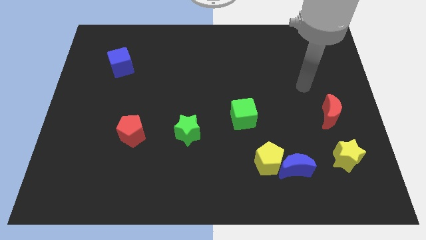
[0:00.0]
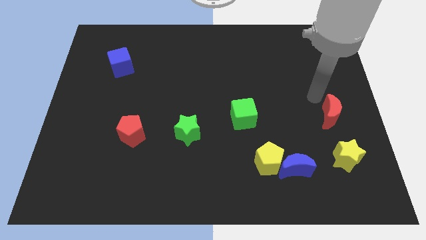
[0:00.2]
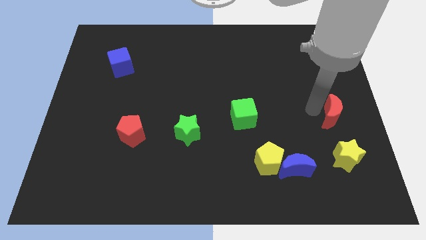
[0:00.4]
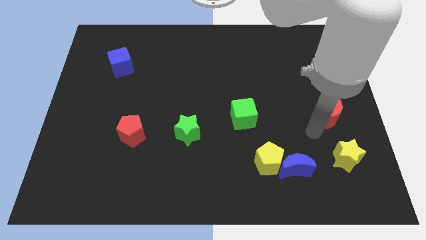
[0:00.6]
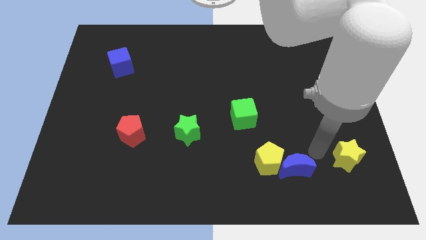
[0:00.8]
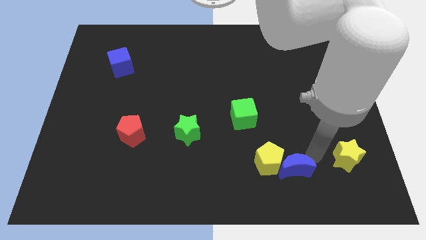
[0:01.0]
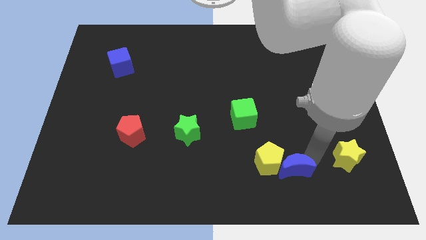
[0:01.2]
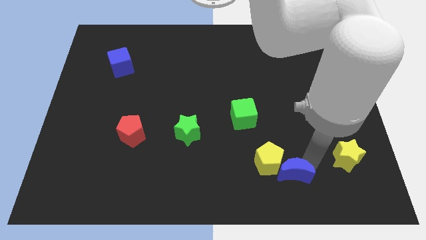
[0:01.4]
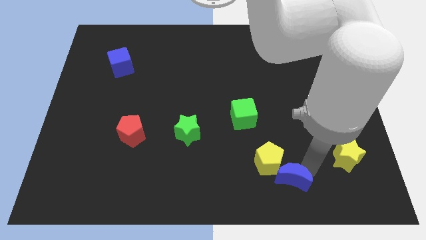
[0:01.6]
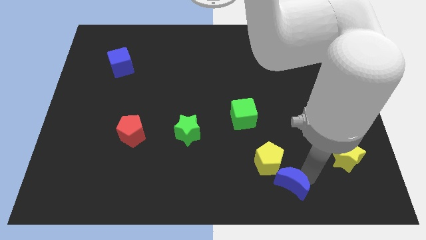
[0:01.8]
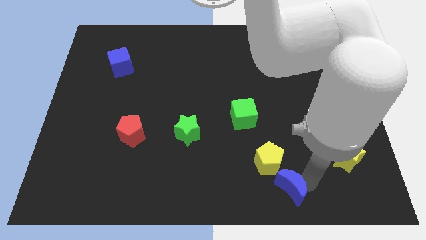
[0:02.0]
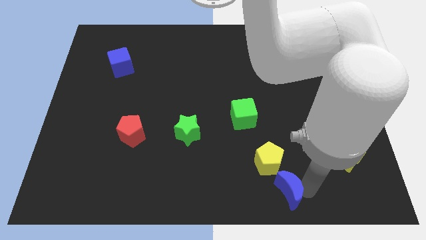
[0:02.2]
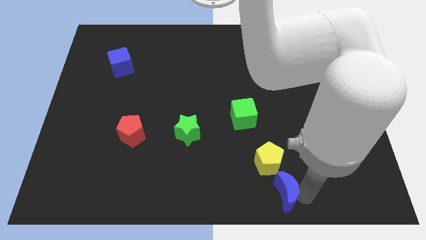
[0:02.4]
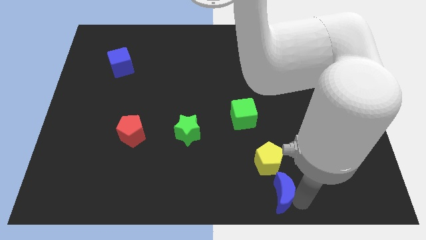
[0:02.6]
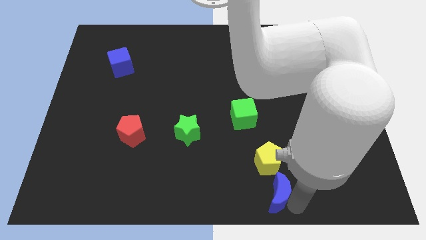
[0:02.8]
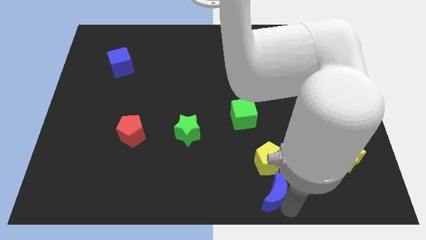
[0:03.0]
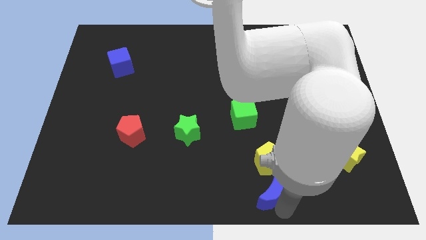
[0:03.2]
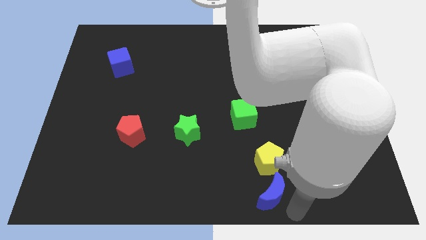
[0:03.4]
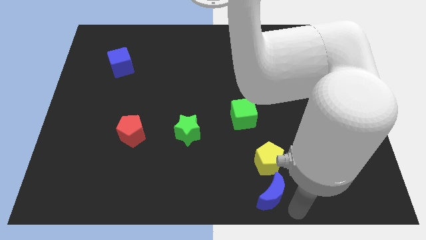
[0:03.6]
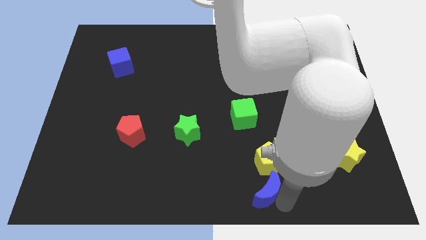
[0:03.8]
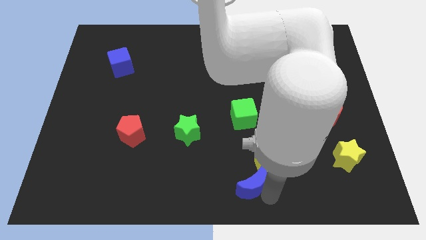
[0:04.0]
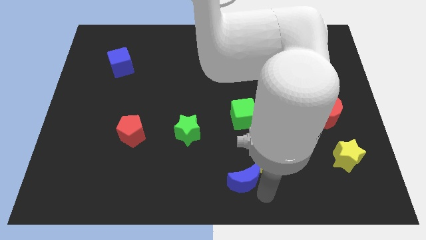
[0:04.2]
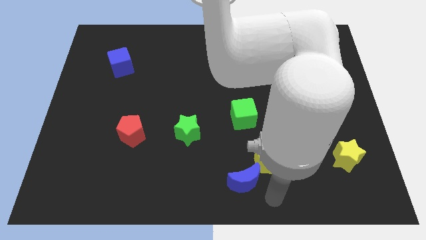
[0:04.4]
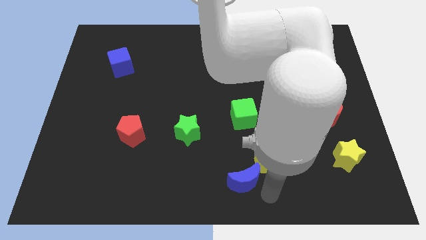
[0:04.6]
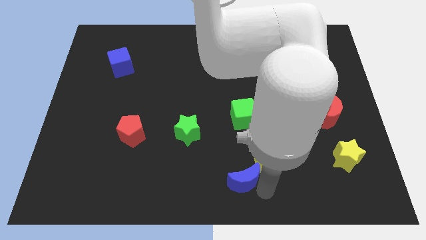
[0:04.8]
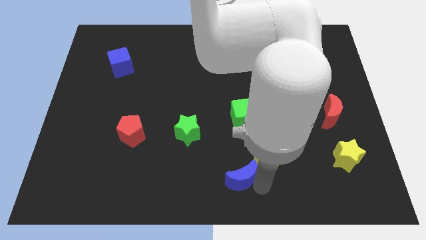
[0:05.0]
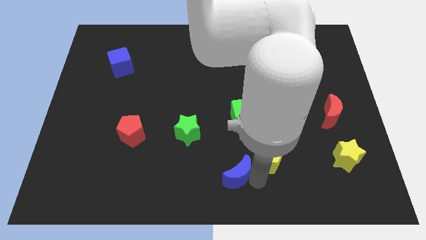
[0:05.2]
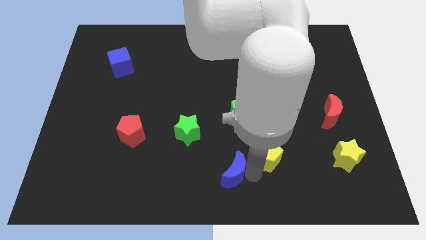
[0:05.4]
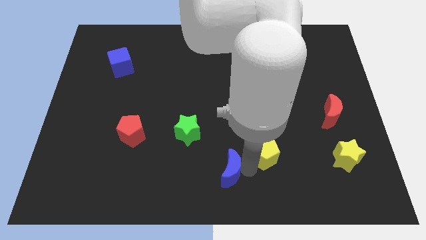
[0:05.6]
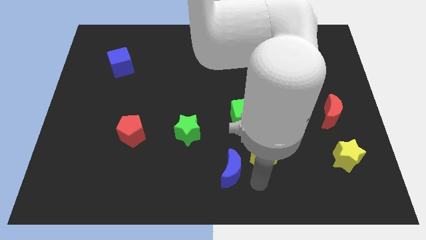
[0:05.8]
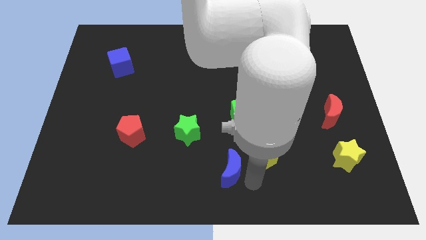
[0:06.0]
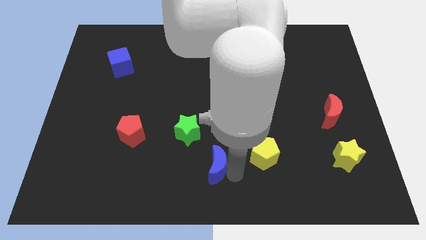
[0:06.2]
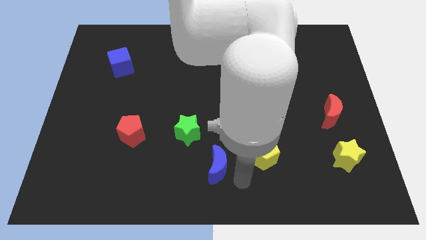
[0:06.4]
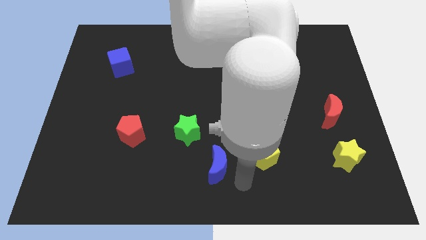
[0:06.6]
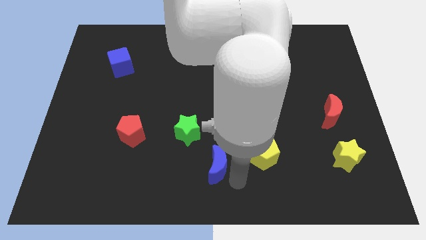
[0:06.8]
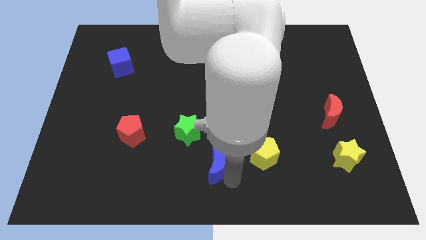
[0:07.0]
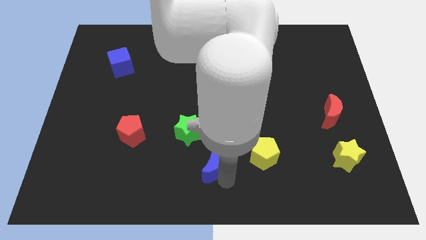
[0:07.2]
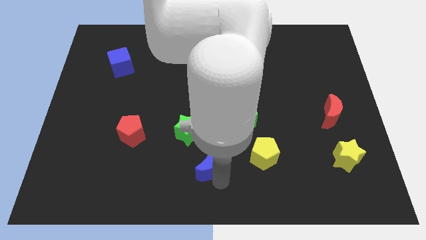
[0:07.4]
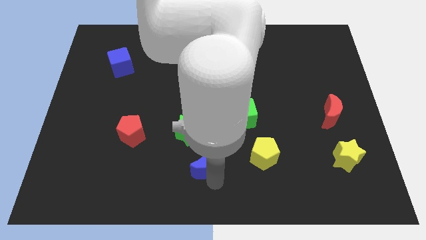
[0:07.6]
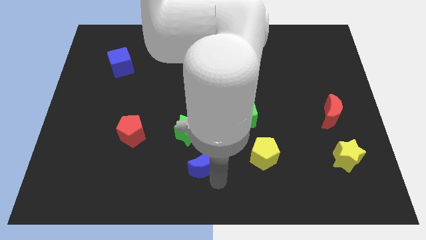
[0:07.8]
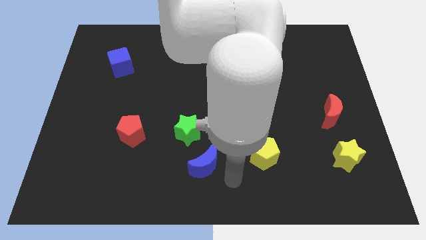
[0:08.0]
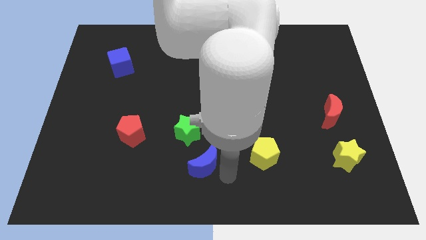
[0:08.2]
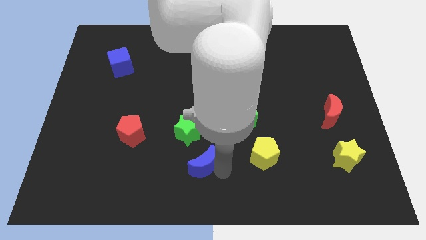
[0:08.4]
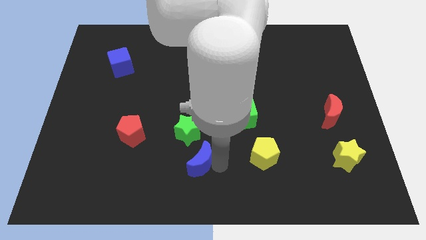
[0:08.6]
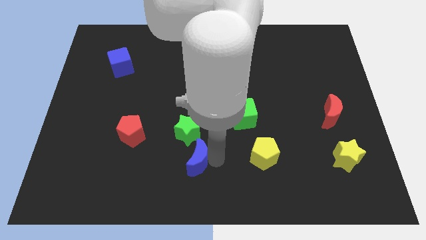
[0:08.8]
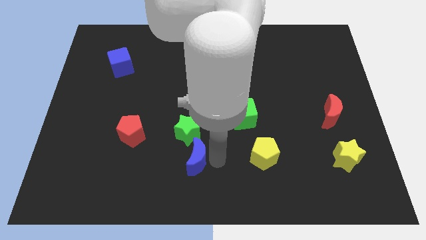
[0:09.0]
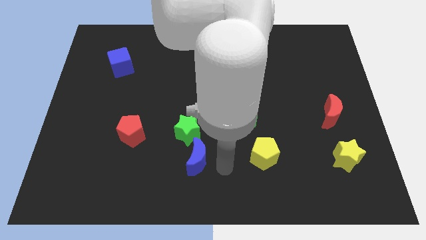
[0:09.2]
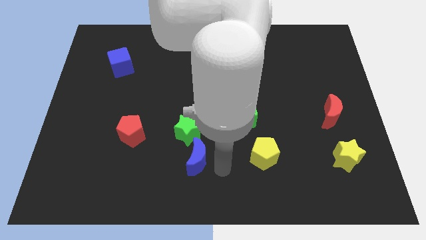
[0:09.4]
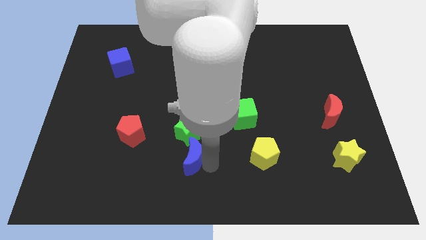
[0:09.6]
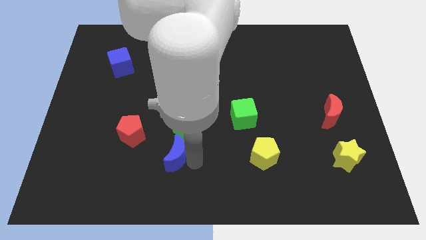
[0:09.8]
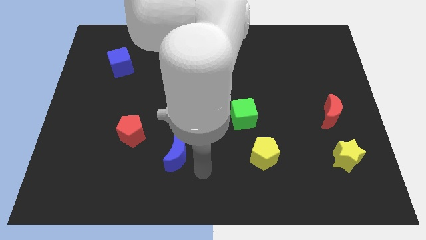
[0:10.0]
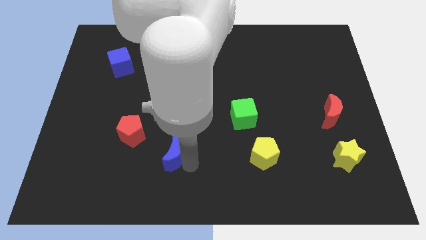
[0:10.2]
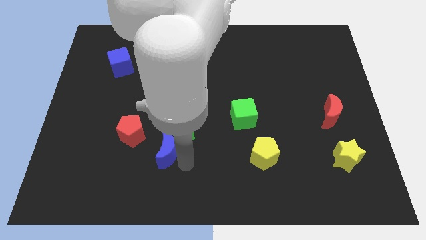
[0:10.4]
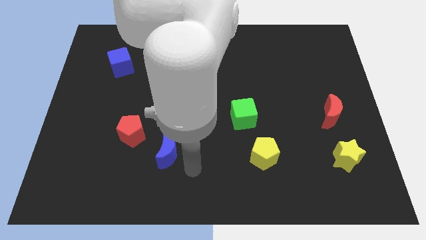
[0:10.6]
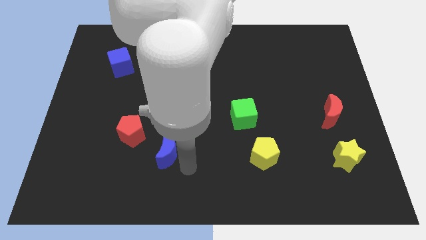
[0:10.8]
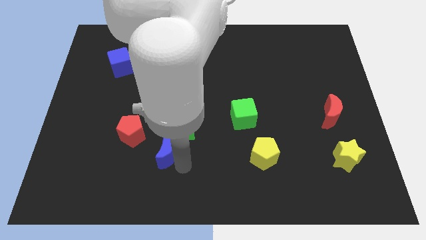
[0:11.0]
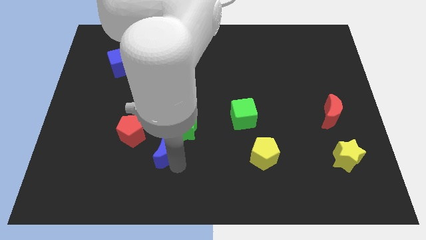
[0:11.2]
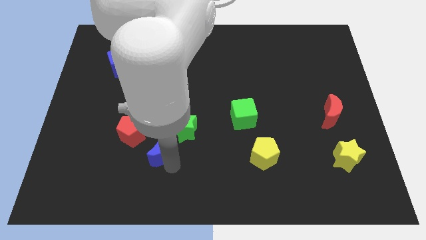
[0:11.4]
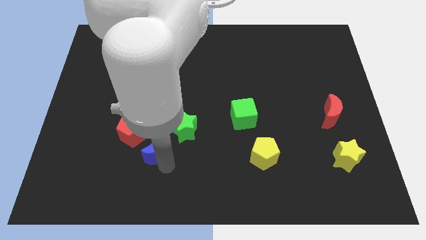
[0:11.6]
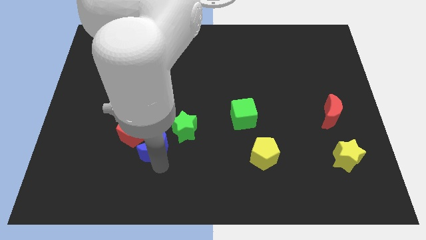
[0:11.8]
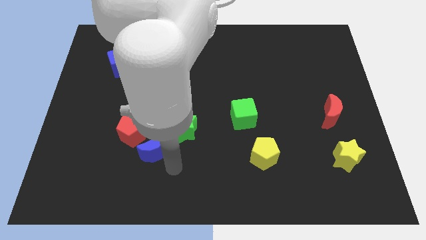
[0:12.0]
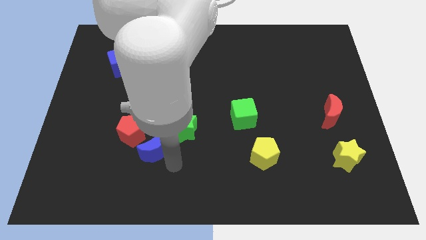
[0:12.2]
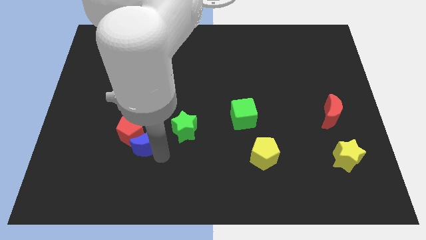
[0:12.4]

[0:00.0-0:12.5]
move the blue moon to the red pentagon

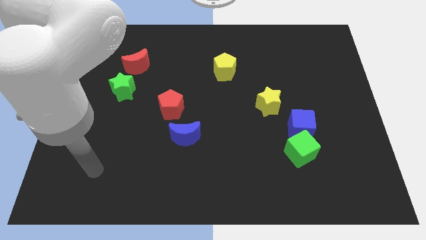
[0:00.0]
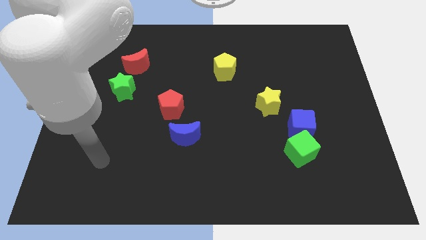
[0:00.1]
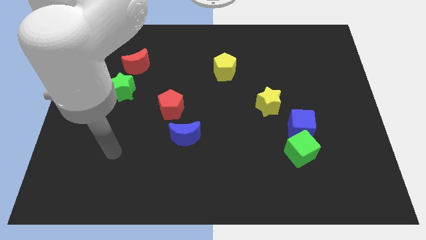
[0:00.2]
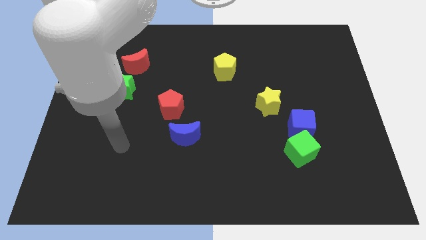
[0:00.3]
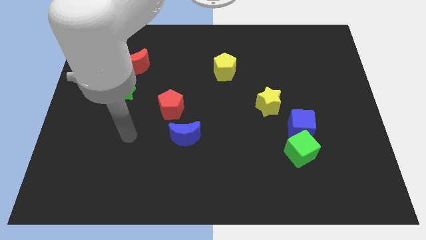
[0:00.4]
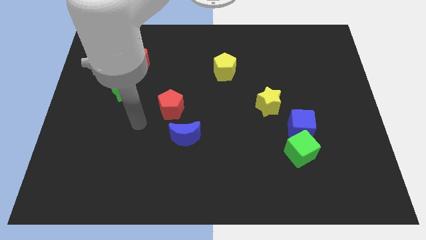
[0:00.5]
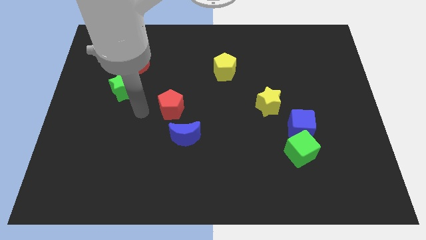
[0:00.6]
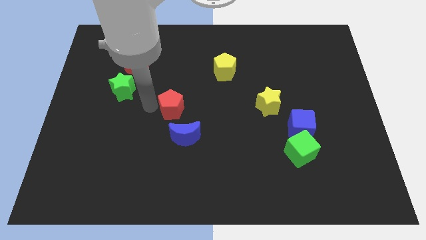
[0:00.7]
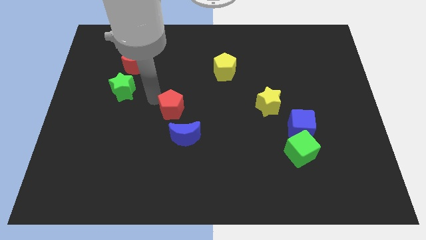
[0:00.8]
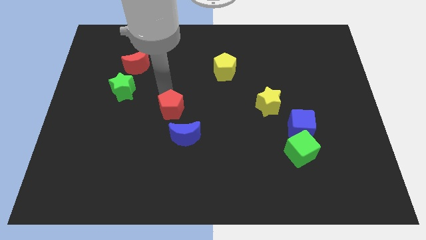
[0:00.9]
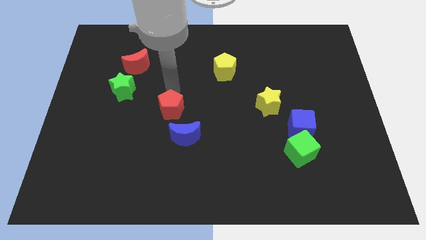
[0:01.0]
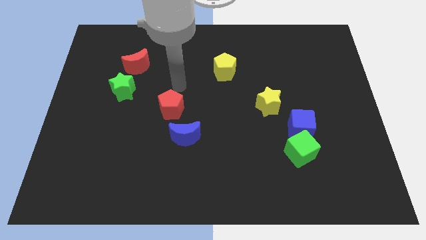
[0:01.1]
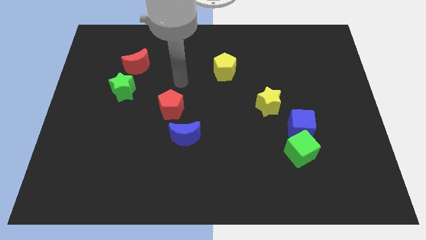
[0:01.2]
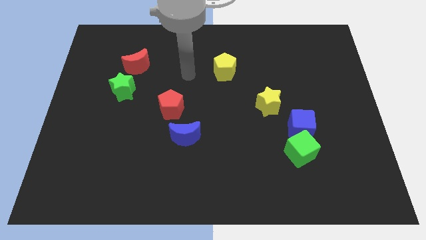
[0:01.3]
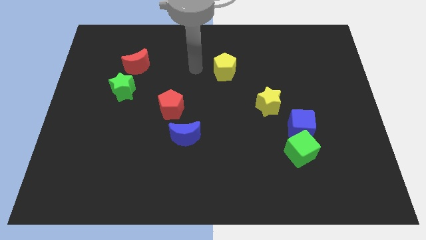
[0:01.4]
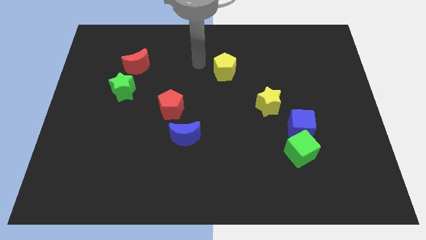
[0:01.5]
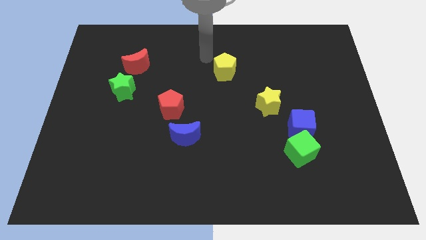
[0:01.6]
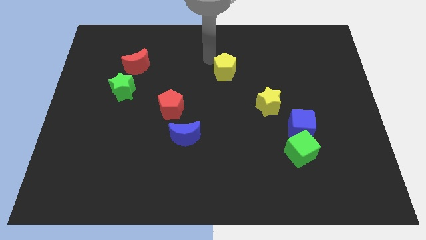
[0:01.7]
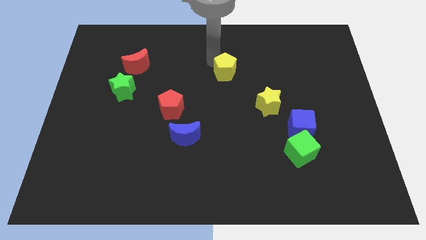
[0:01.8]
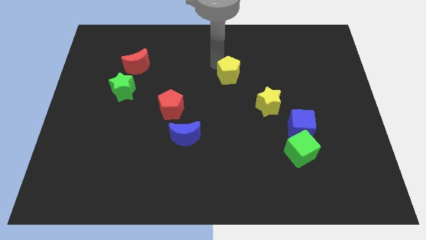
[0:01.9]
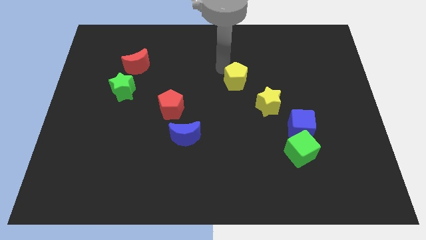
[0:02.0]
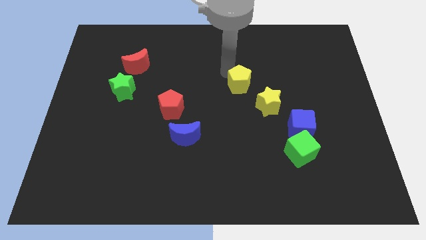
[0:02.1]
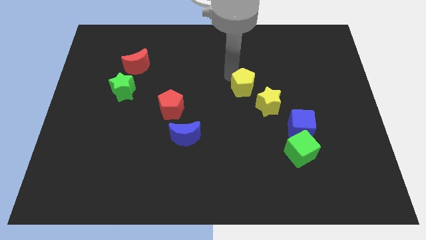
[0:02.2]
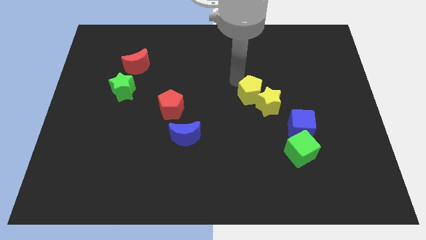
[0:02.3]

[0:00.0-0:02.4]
slide the yellow pentagon towards the yellow star
